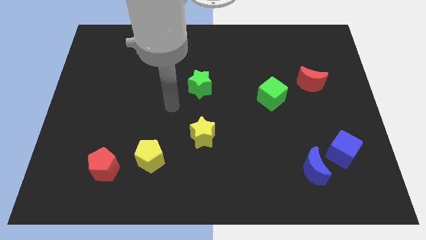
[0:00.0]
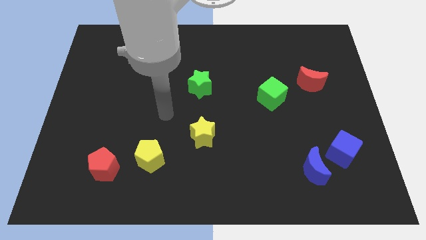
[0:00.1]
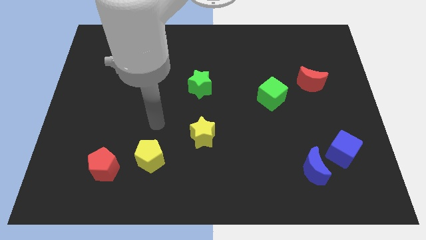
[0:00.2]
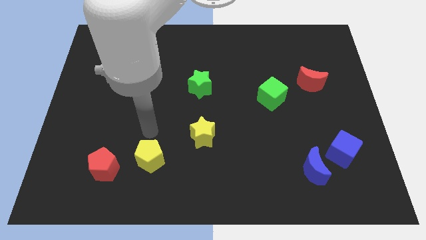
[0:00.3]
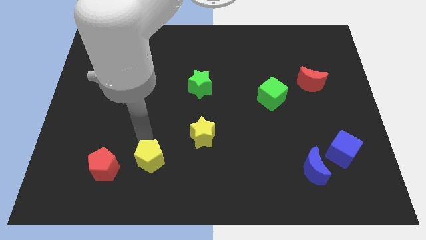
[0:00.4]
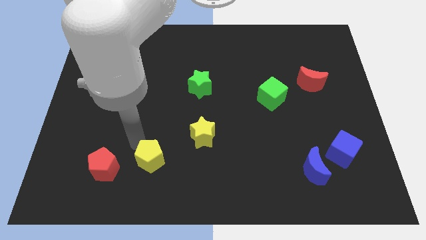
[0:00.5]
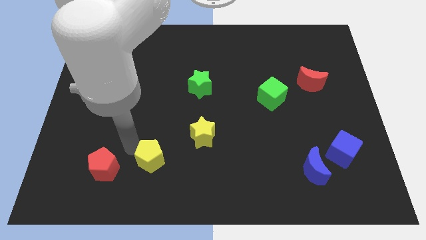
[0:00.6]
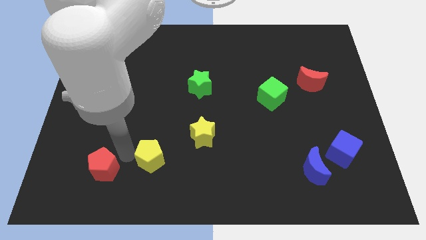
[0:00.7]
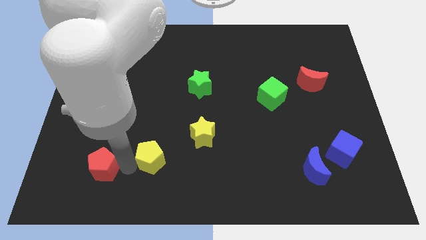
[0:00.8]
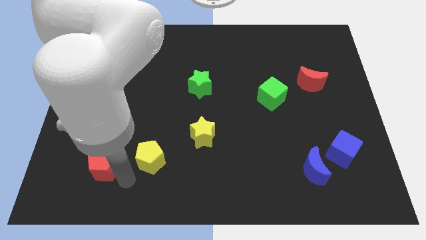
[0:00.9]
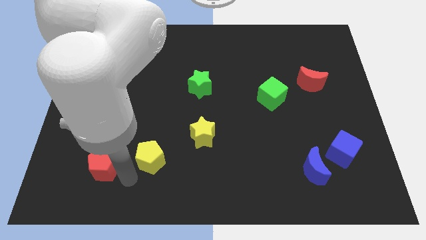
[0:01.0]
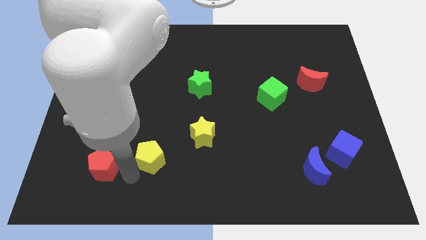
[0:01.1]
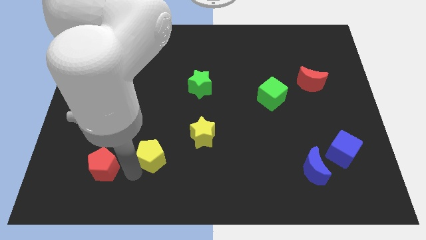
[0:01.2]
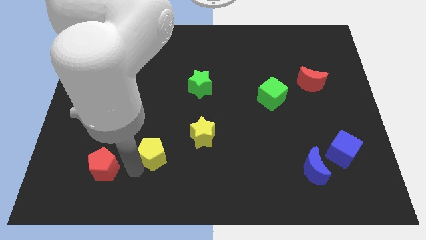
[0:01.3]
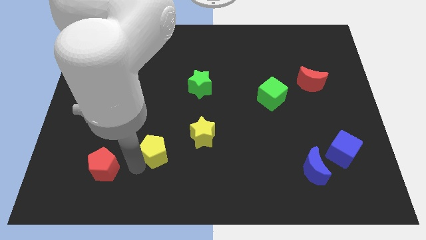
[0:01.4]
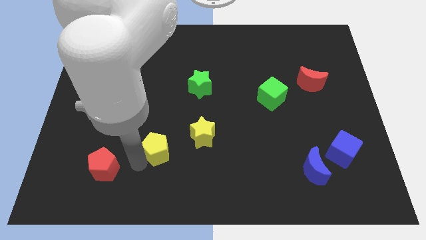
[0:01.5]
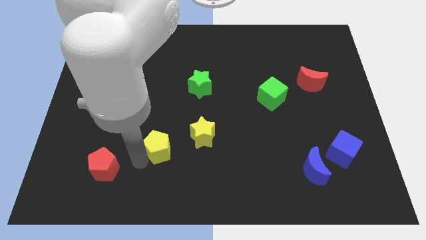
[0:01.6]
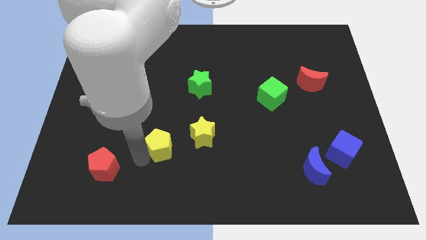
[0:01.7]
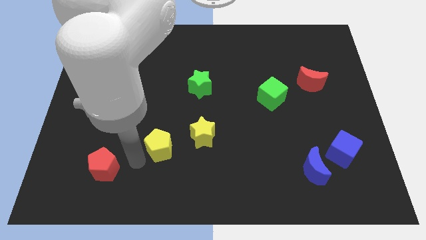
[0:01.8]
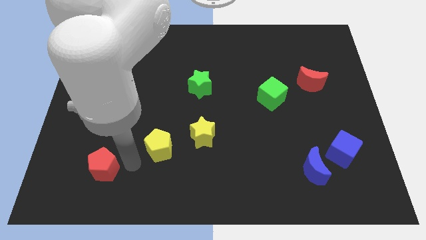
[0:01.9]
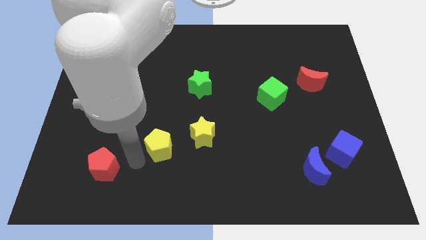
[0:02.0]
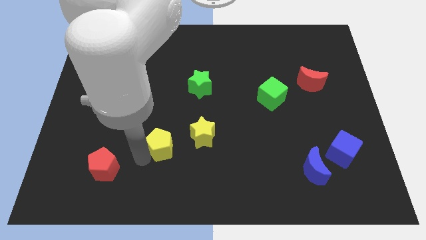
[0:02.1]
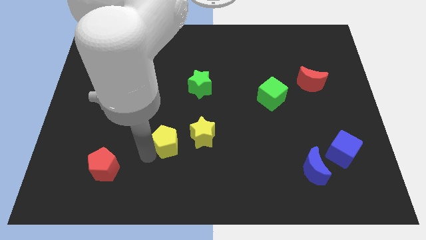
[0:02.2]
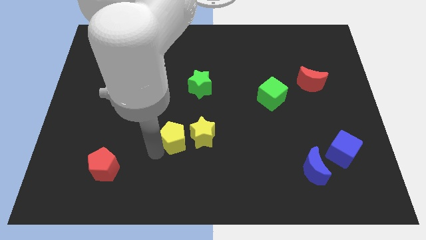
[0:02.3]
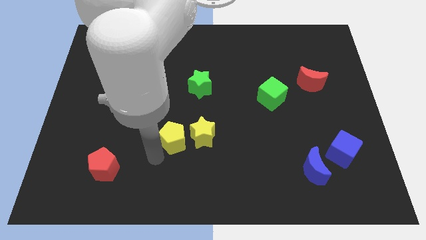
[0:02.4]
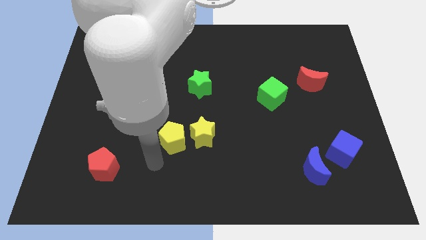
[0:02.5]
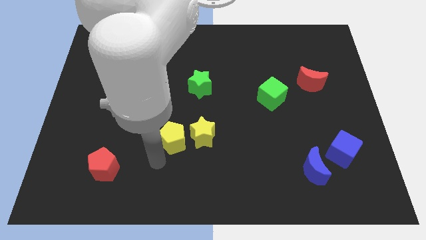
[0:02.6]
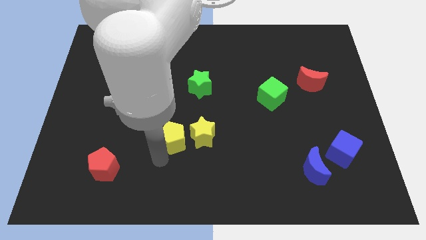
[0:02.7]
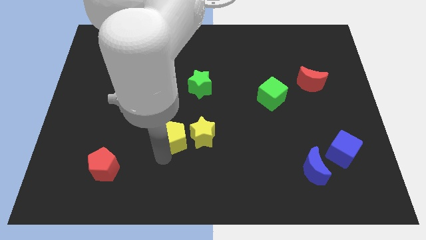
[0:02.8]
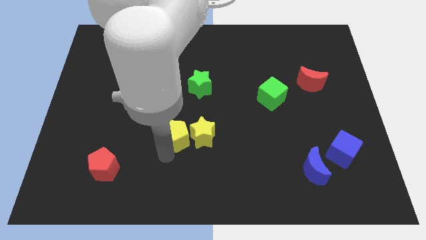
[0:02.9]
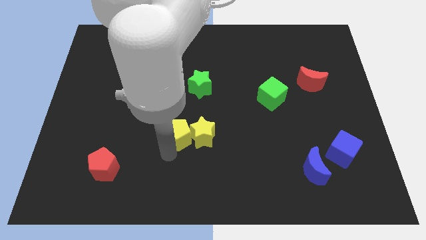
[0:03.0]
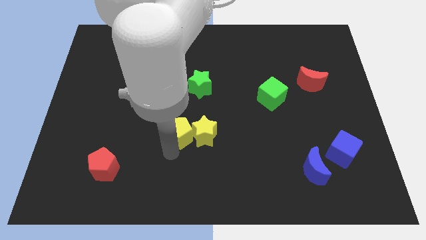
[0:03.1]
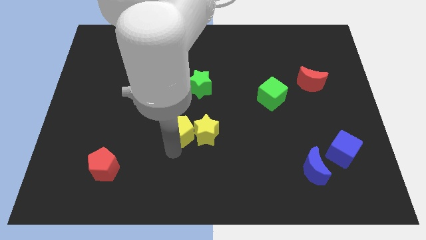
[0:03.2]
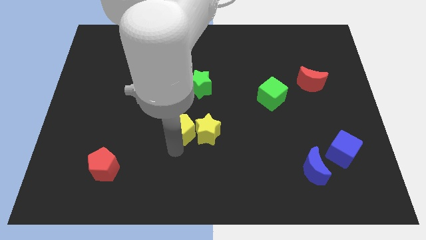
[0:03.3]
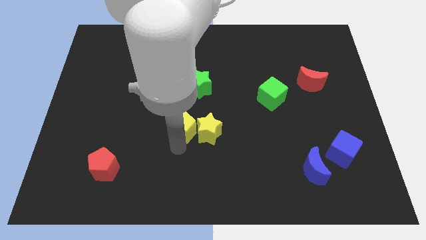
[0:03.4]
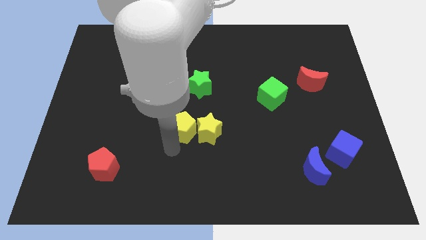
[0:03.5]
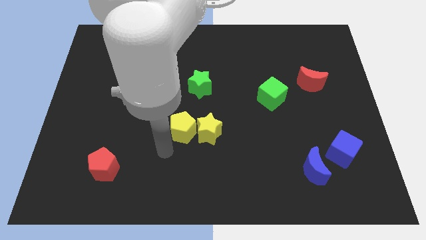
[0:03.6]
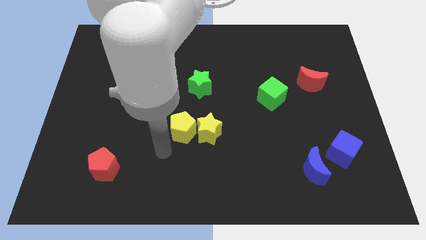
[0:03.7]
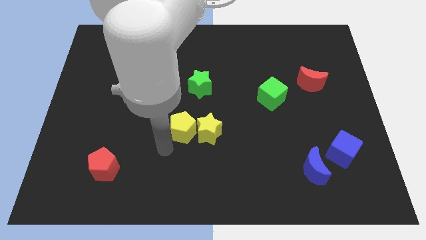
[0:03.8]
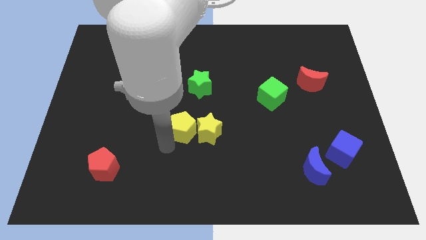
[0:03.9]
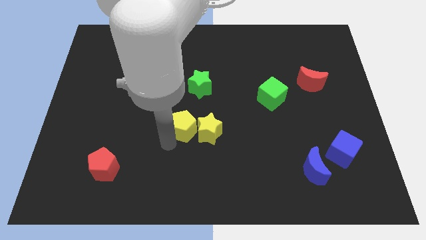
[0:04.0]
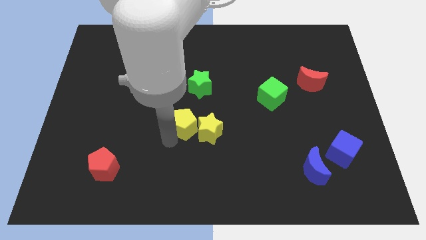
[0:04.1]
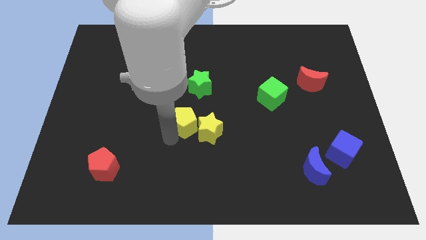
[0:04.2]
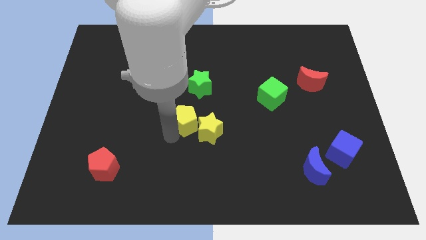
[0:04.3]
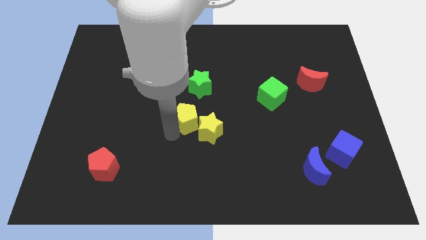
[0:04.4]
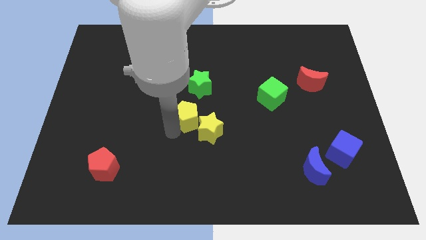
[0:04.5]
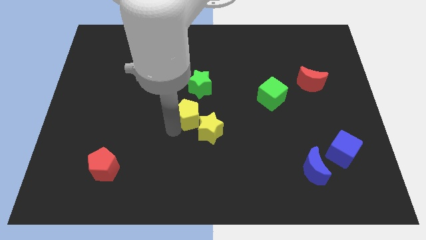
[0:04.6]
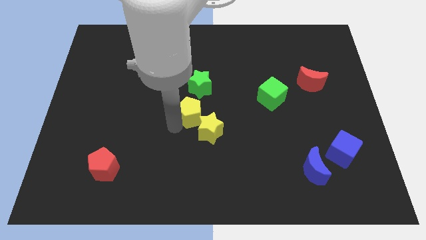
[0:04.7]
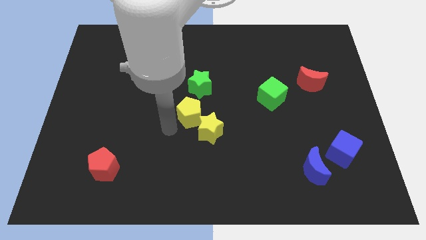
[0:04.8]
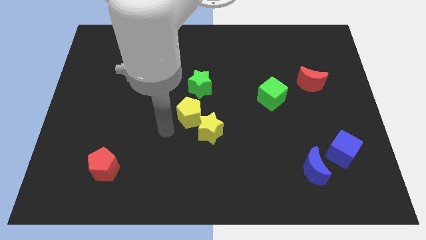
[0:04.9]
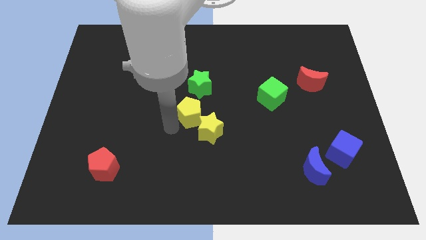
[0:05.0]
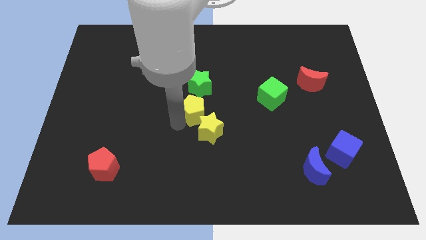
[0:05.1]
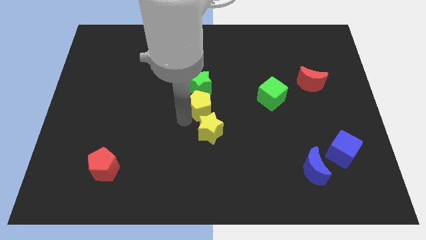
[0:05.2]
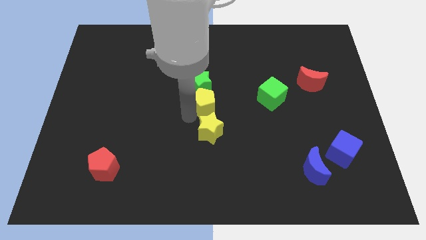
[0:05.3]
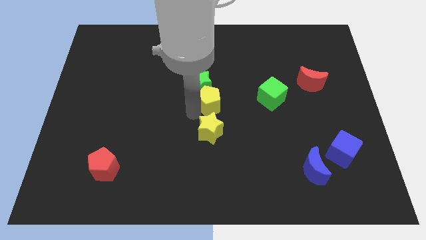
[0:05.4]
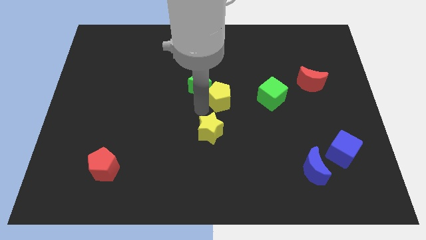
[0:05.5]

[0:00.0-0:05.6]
push the yellow pentagon up and then right

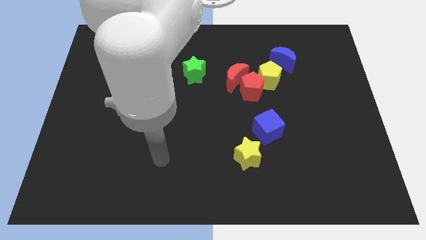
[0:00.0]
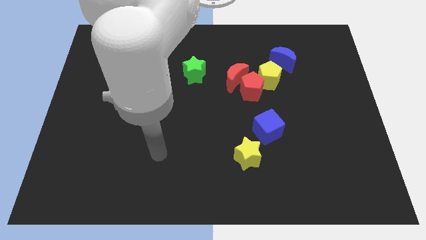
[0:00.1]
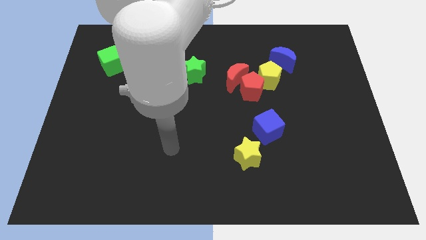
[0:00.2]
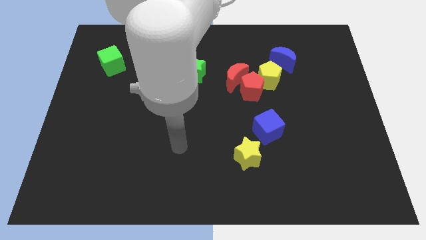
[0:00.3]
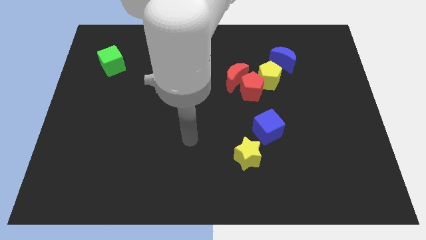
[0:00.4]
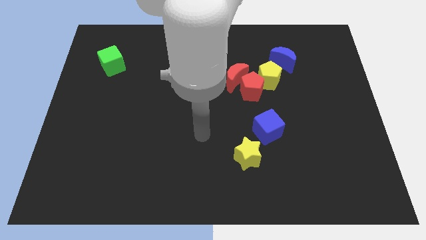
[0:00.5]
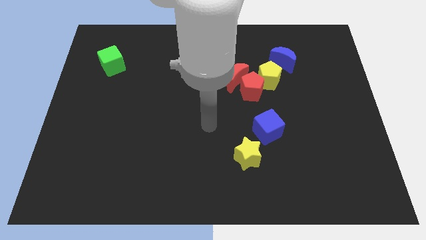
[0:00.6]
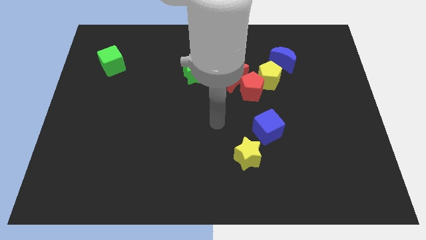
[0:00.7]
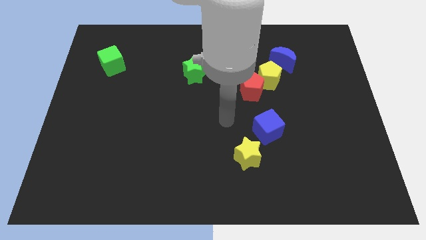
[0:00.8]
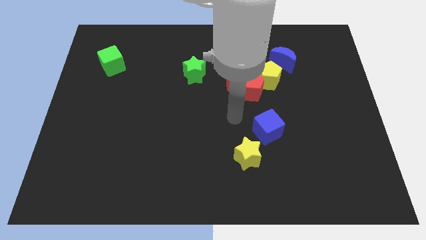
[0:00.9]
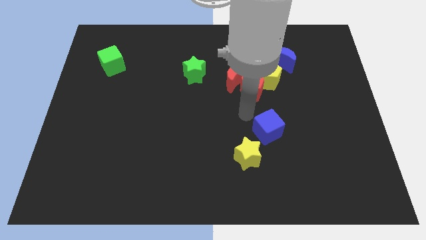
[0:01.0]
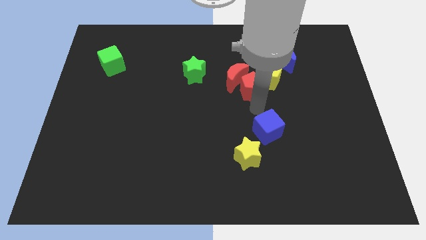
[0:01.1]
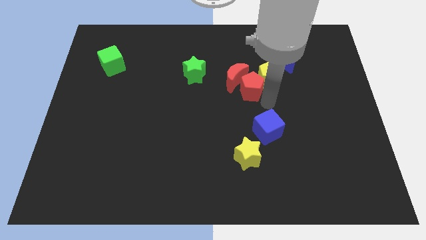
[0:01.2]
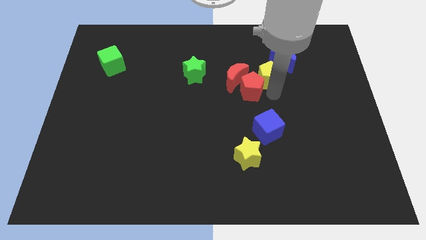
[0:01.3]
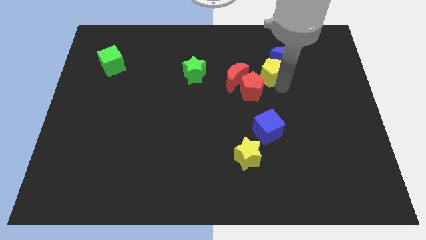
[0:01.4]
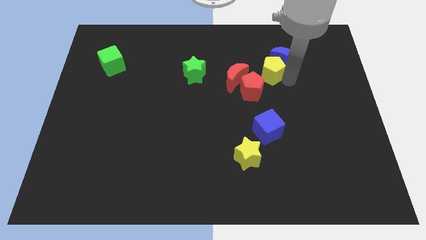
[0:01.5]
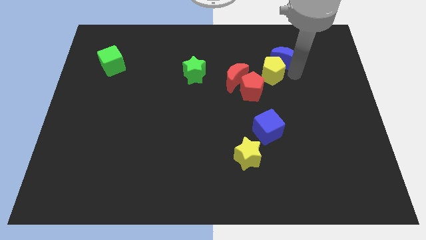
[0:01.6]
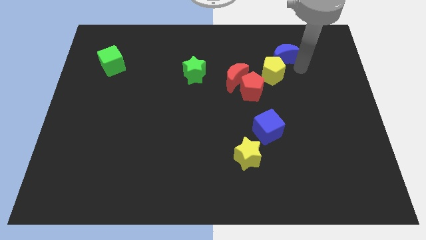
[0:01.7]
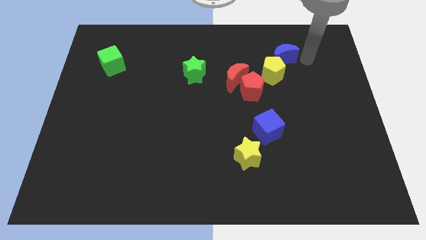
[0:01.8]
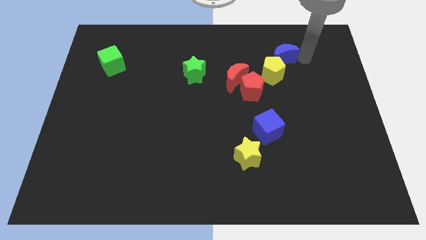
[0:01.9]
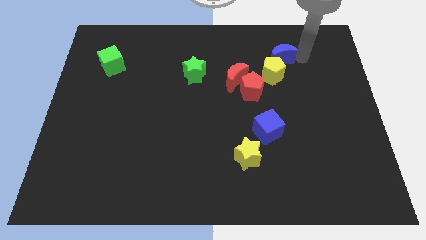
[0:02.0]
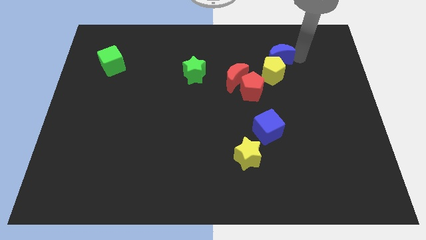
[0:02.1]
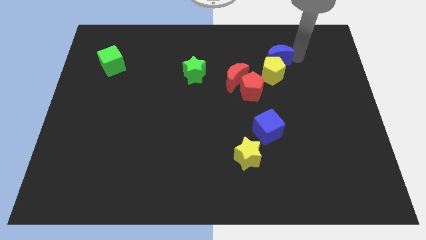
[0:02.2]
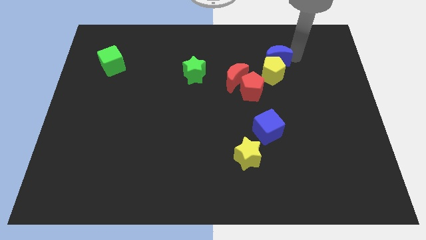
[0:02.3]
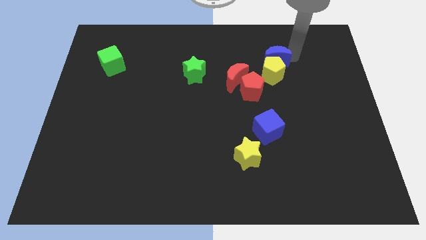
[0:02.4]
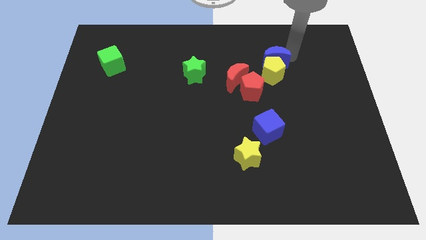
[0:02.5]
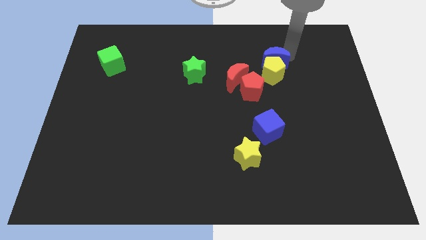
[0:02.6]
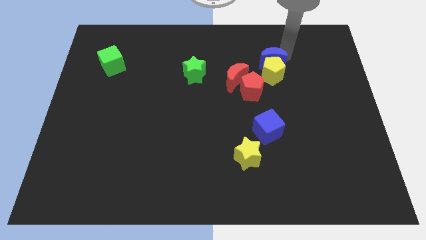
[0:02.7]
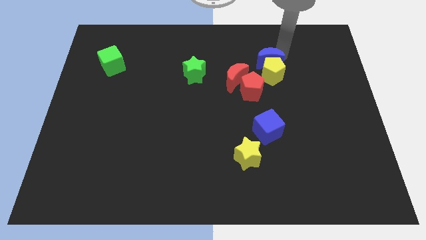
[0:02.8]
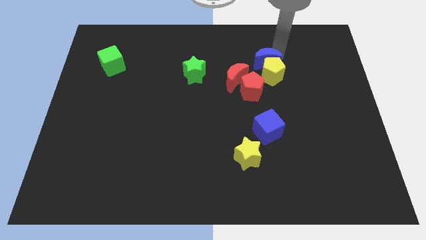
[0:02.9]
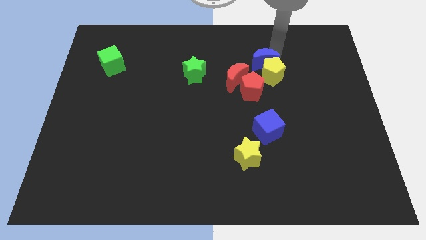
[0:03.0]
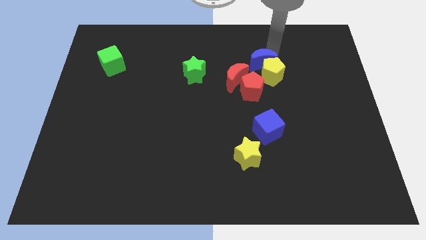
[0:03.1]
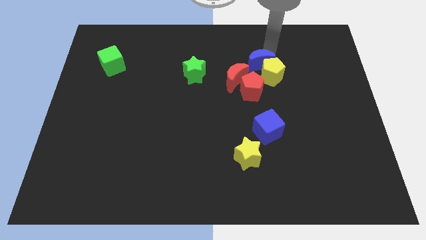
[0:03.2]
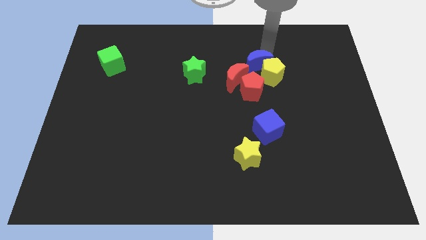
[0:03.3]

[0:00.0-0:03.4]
move the blue moon left a little bit
